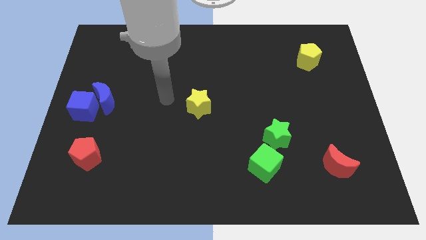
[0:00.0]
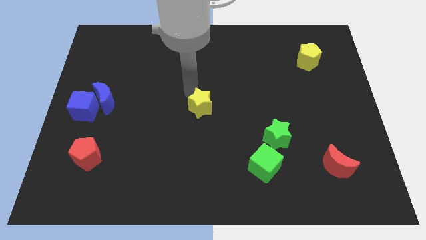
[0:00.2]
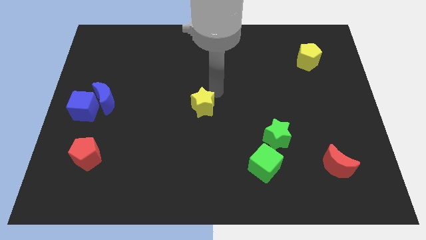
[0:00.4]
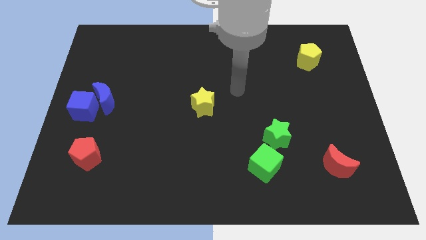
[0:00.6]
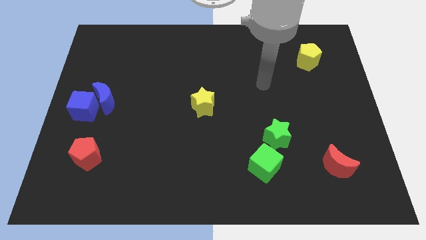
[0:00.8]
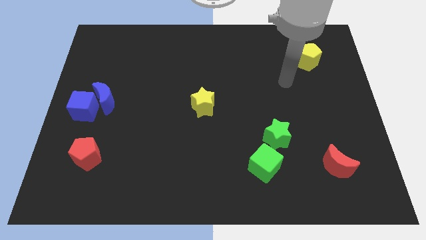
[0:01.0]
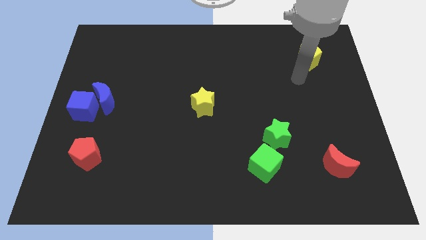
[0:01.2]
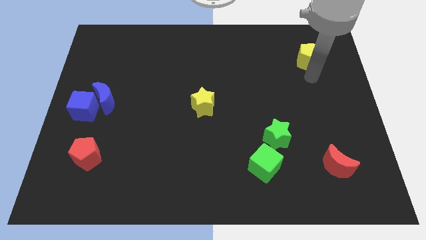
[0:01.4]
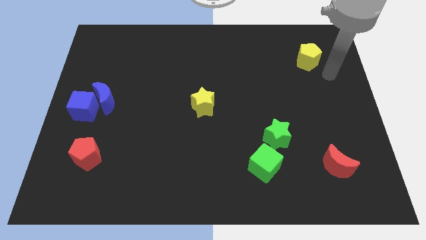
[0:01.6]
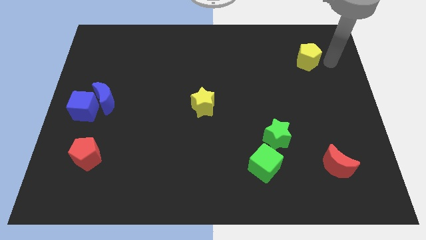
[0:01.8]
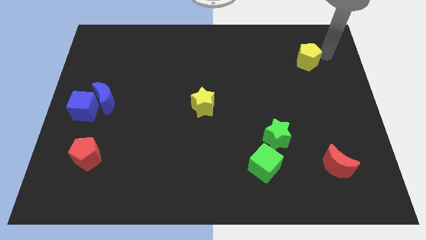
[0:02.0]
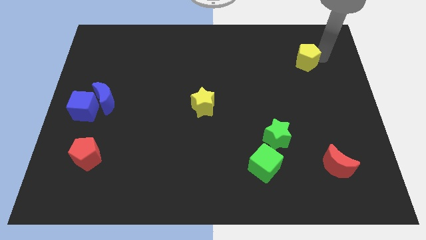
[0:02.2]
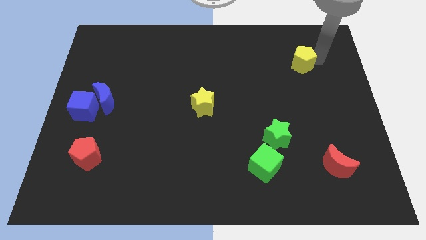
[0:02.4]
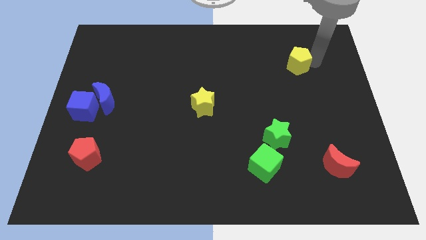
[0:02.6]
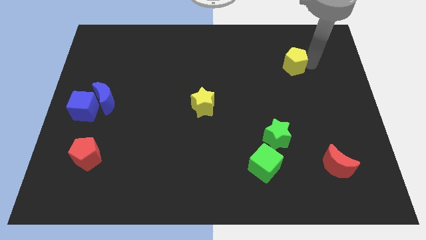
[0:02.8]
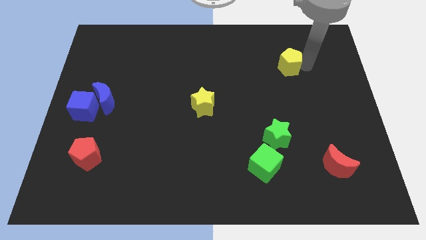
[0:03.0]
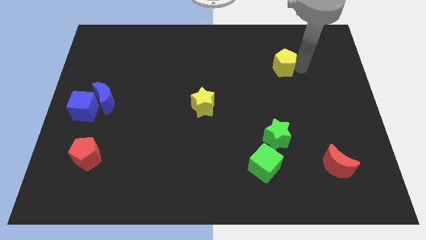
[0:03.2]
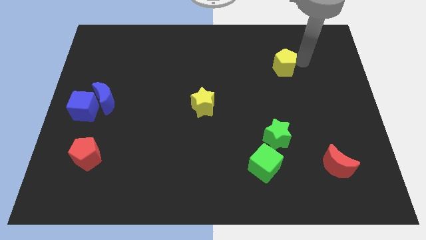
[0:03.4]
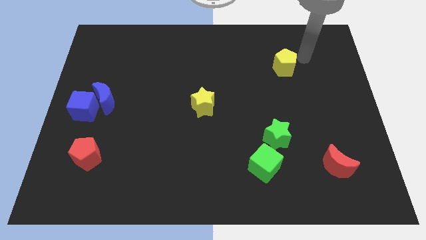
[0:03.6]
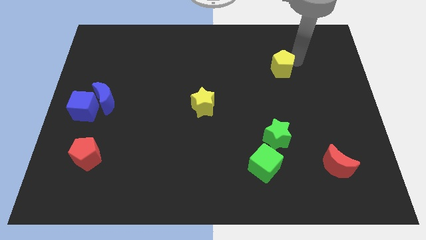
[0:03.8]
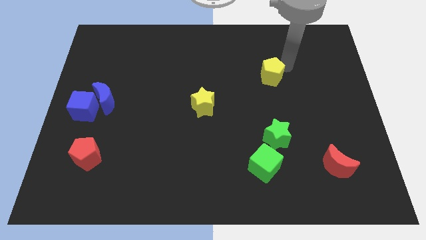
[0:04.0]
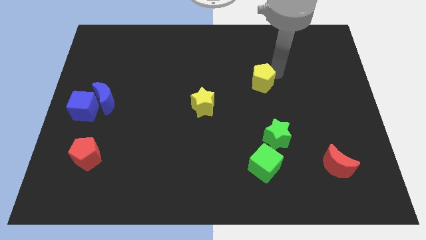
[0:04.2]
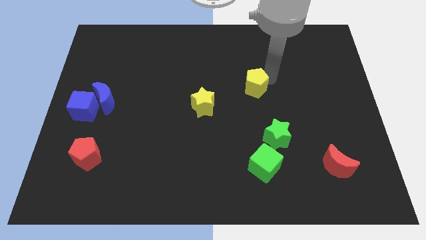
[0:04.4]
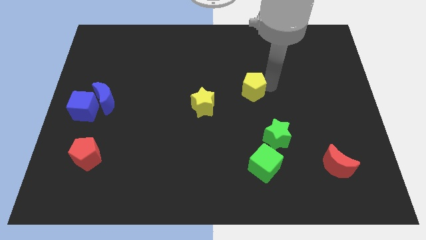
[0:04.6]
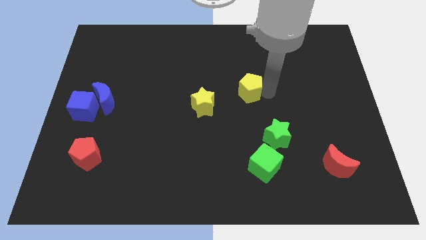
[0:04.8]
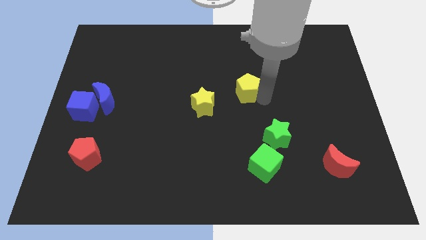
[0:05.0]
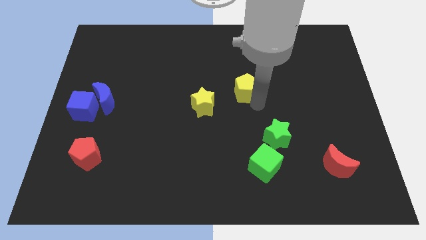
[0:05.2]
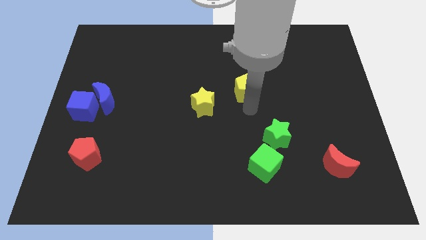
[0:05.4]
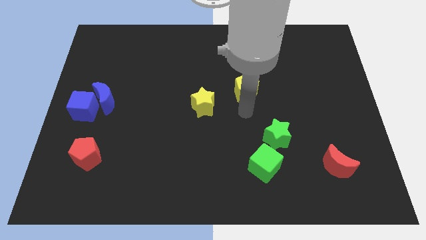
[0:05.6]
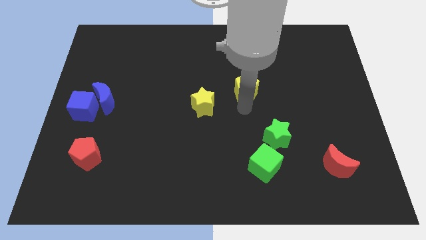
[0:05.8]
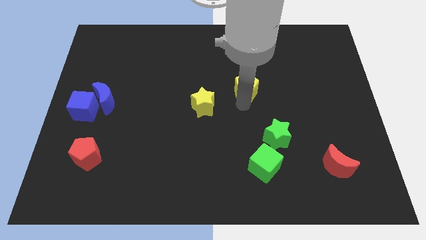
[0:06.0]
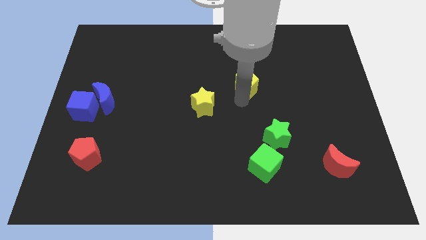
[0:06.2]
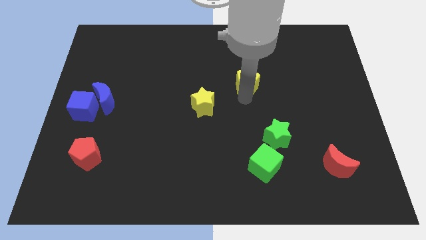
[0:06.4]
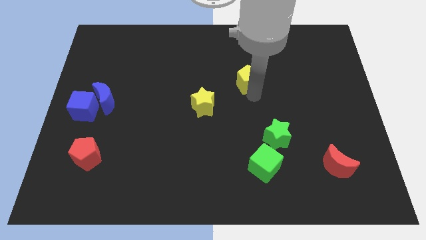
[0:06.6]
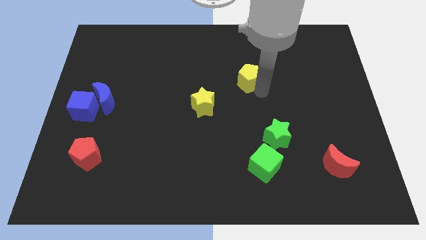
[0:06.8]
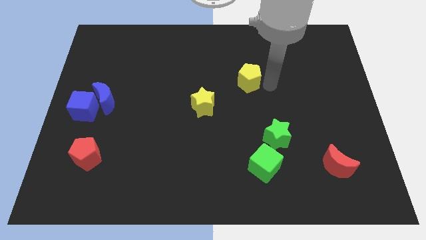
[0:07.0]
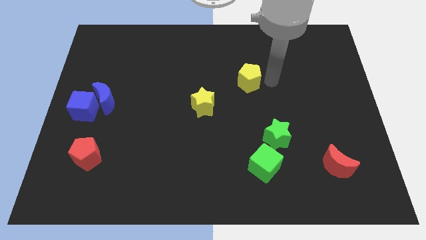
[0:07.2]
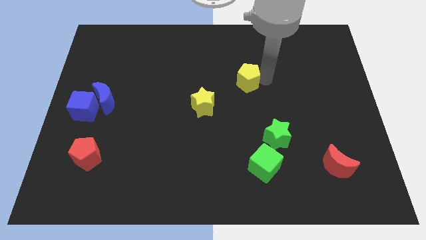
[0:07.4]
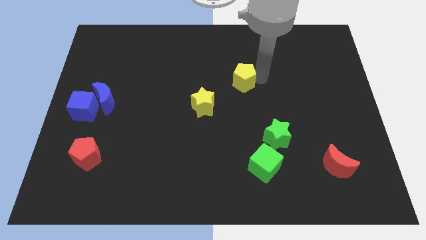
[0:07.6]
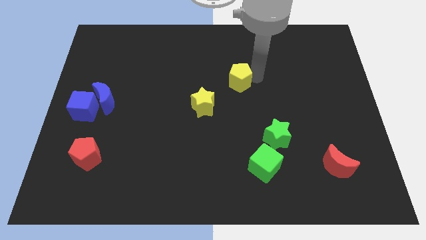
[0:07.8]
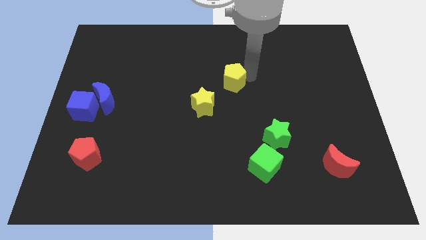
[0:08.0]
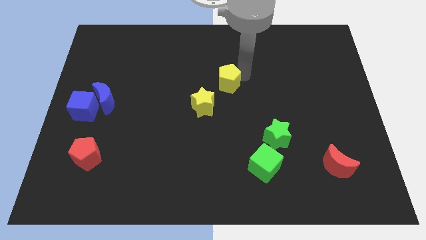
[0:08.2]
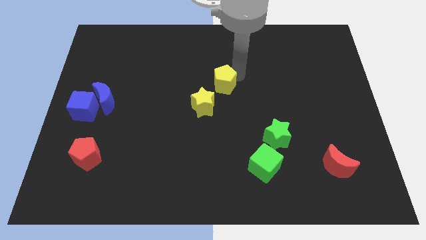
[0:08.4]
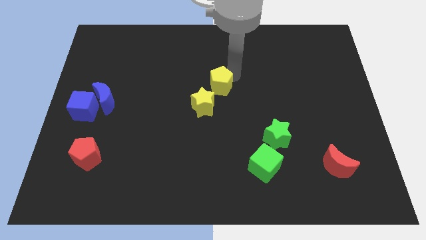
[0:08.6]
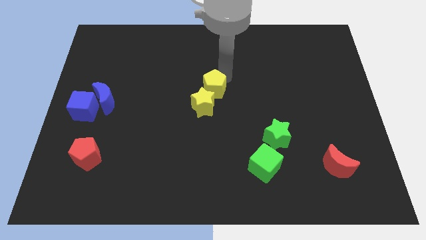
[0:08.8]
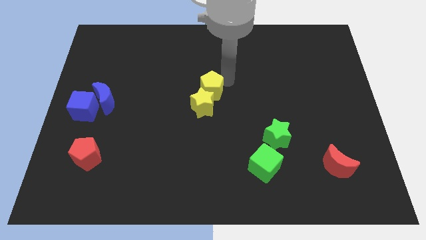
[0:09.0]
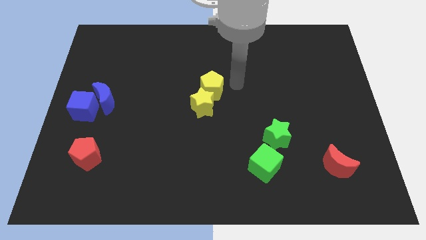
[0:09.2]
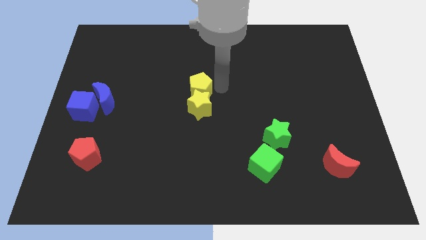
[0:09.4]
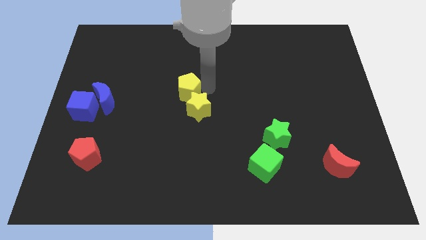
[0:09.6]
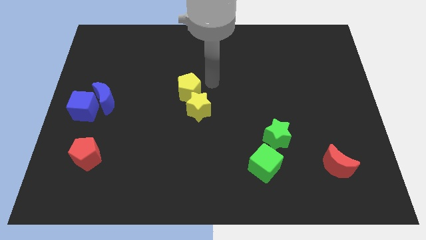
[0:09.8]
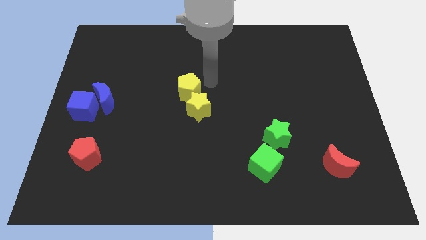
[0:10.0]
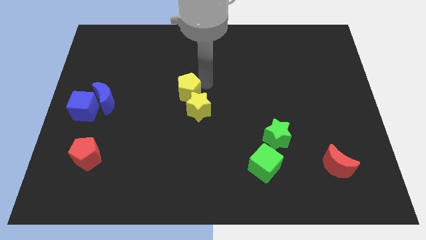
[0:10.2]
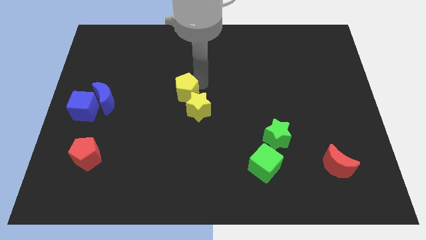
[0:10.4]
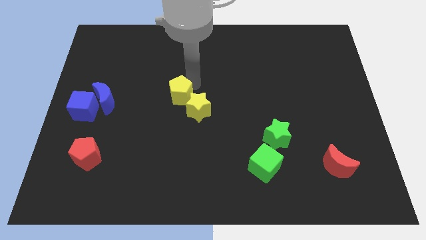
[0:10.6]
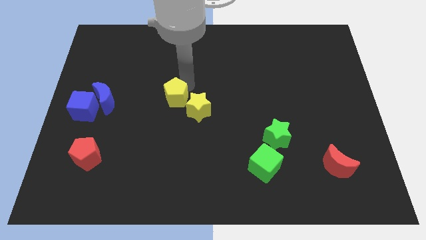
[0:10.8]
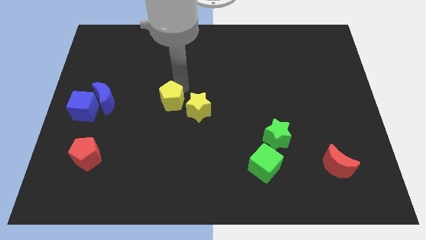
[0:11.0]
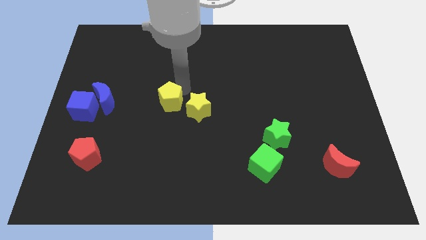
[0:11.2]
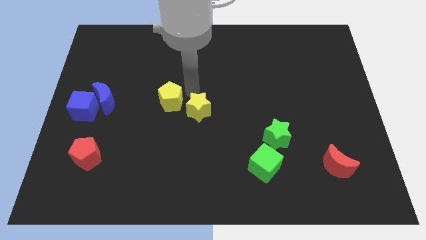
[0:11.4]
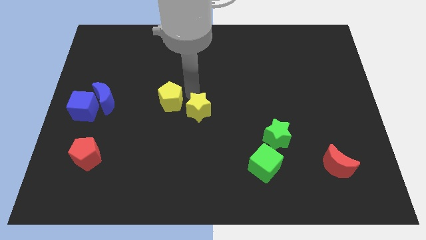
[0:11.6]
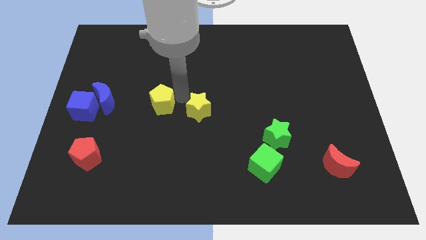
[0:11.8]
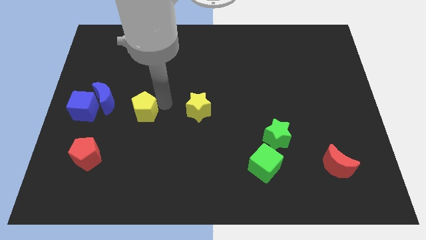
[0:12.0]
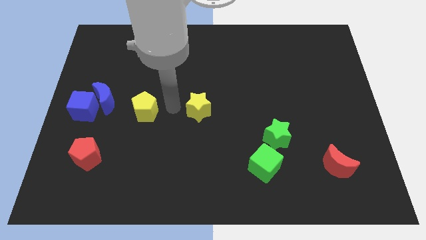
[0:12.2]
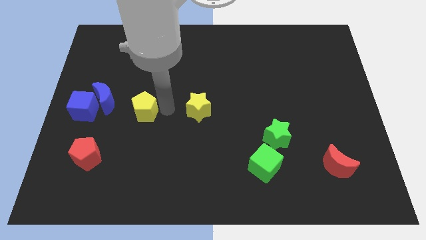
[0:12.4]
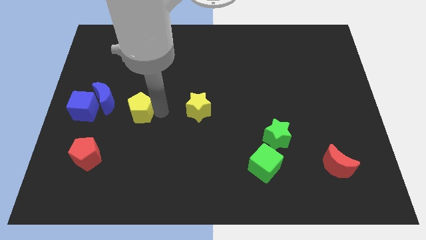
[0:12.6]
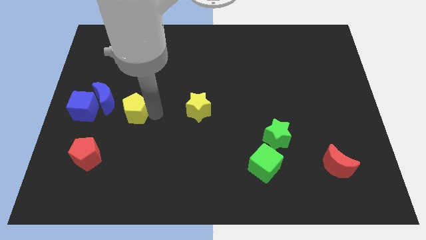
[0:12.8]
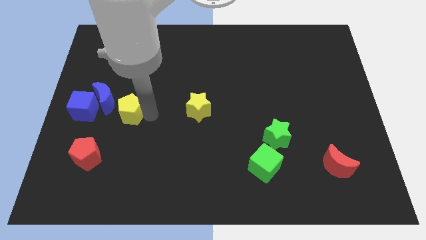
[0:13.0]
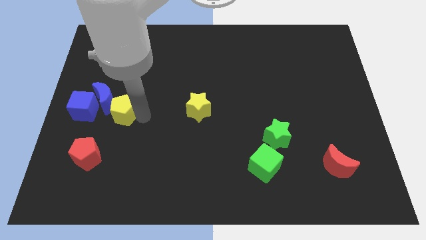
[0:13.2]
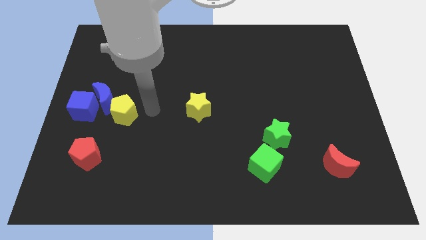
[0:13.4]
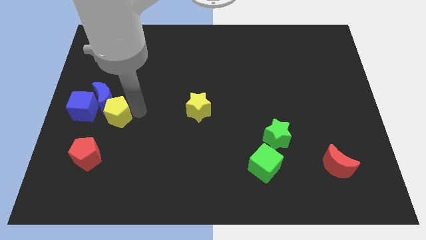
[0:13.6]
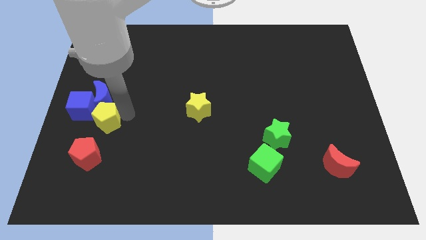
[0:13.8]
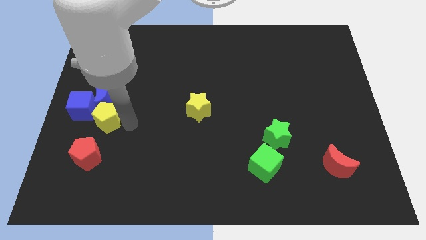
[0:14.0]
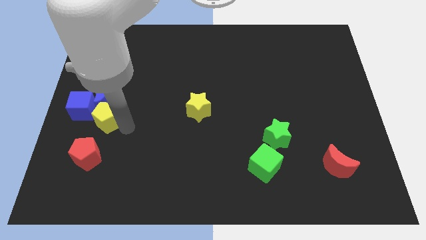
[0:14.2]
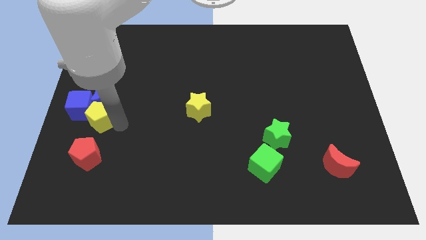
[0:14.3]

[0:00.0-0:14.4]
slide the yellow pentagon close to the blue cube

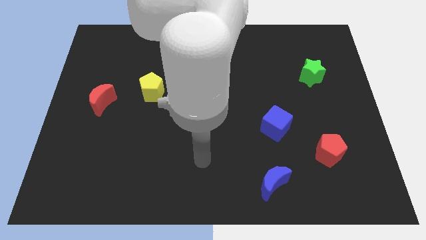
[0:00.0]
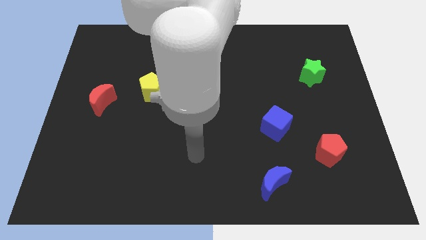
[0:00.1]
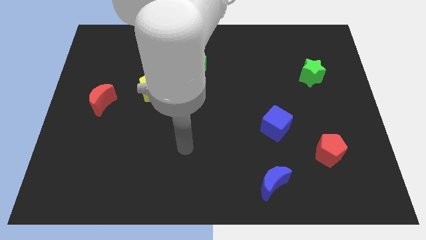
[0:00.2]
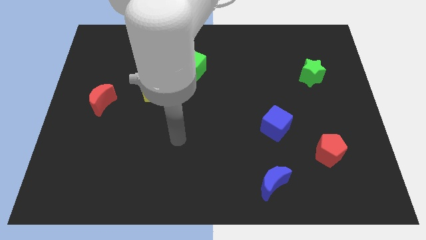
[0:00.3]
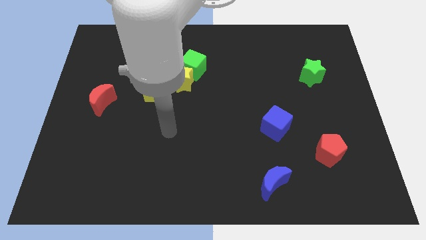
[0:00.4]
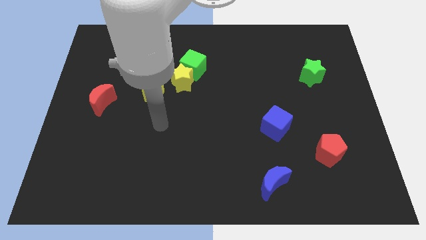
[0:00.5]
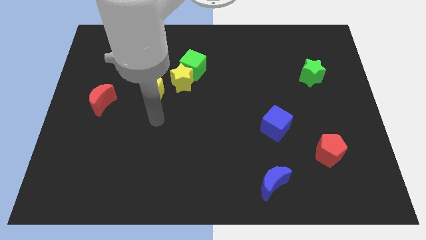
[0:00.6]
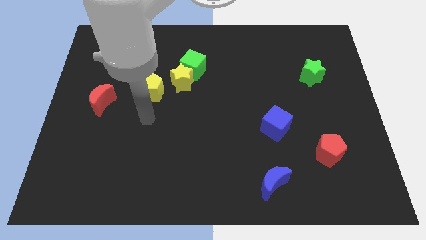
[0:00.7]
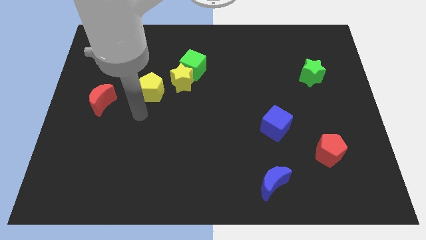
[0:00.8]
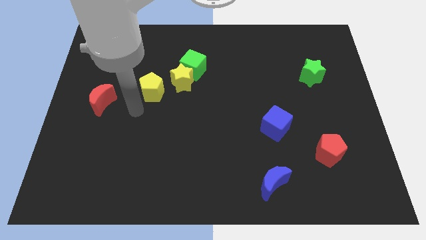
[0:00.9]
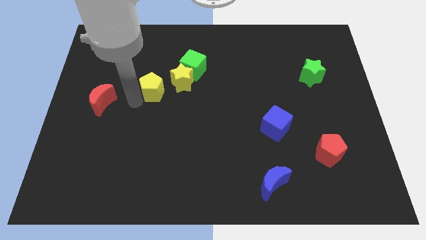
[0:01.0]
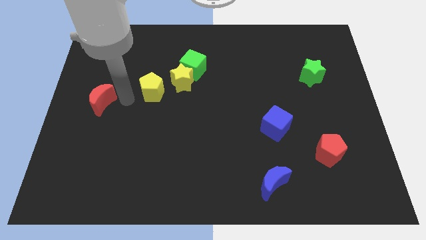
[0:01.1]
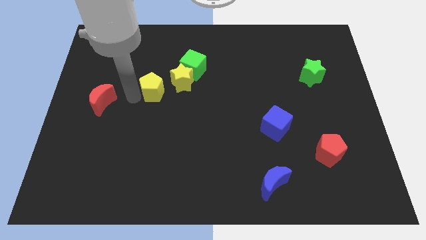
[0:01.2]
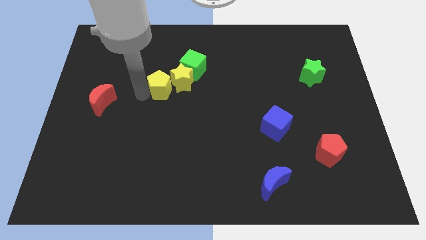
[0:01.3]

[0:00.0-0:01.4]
push the yellow pentagon to the yellow star
